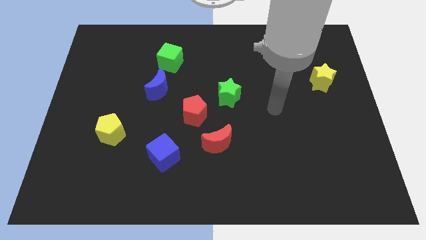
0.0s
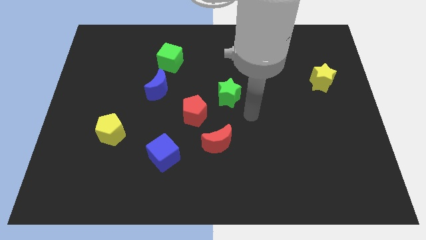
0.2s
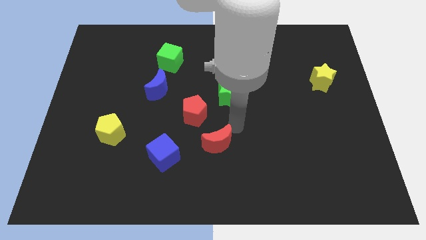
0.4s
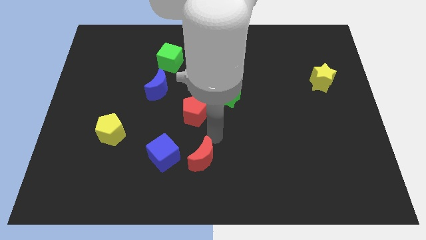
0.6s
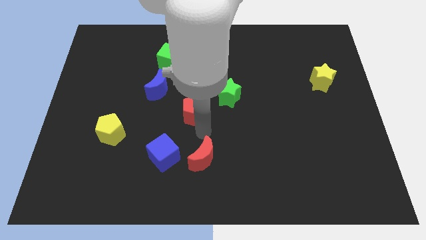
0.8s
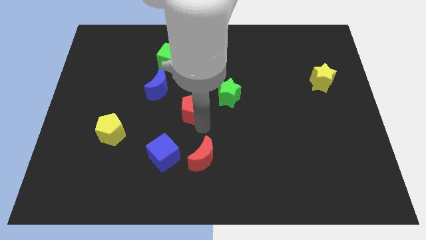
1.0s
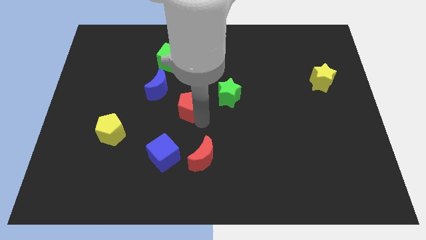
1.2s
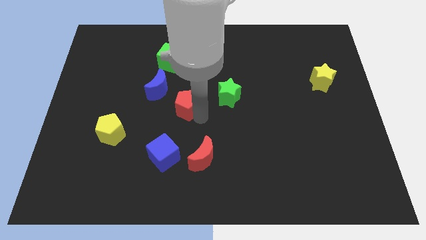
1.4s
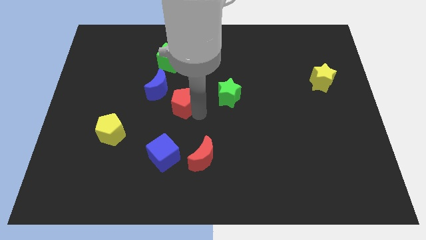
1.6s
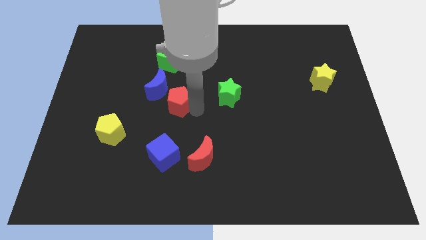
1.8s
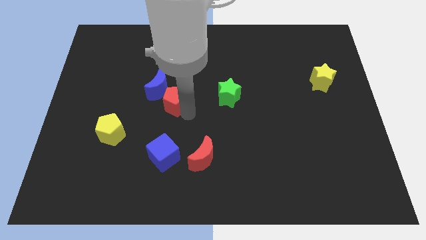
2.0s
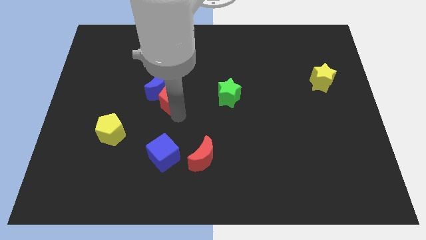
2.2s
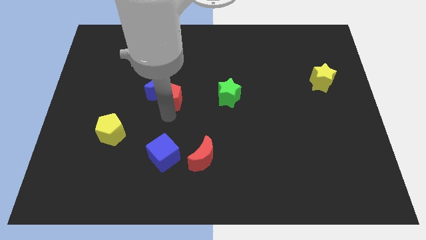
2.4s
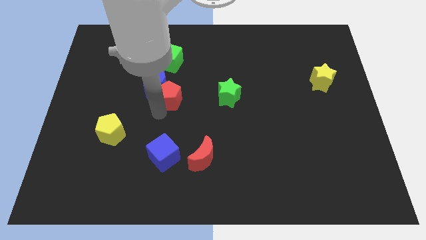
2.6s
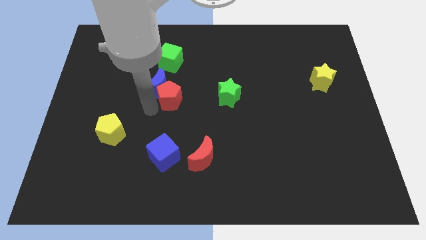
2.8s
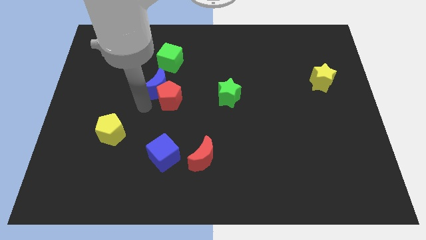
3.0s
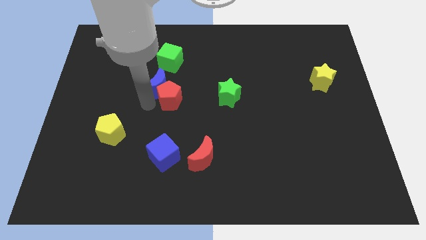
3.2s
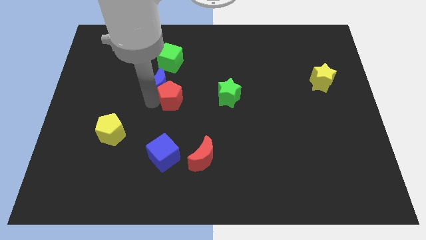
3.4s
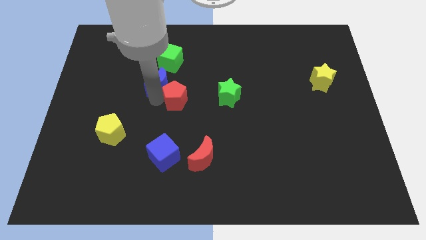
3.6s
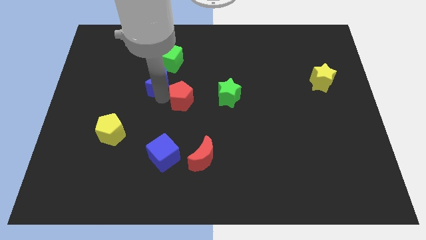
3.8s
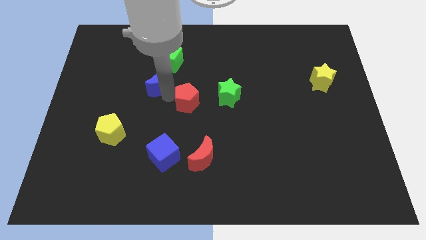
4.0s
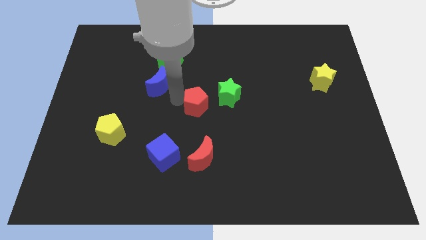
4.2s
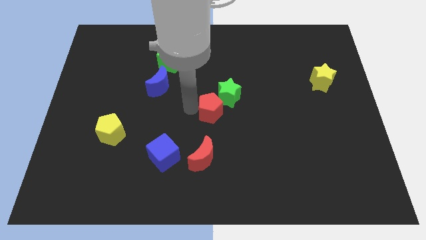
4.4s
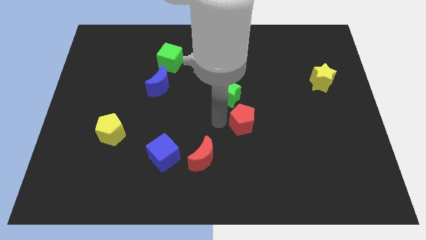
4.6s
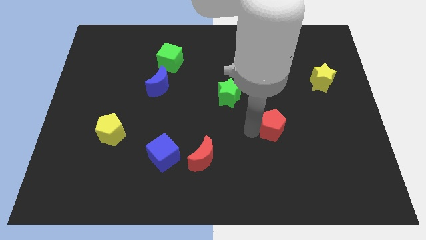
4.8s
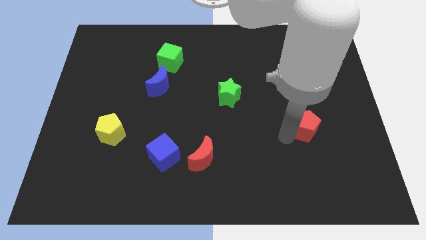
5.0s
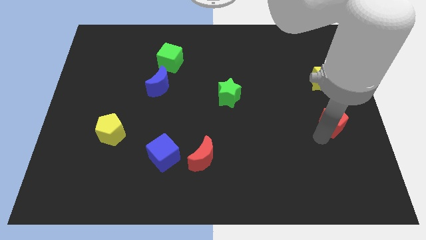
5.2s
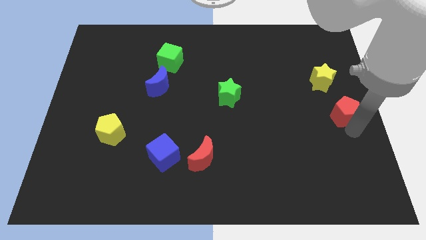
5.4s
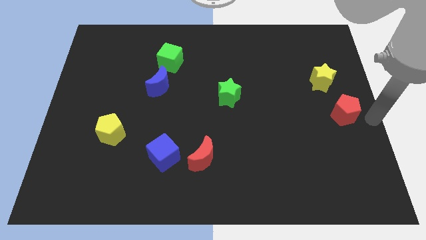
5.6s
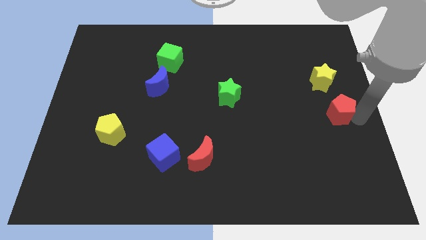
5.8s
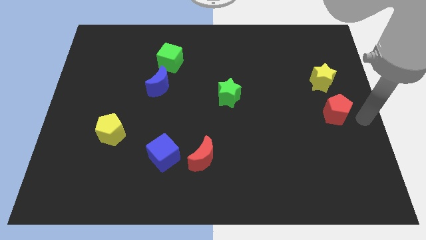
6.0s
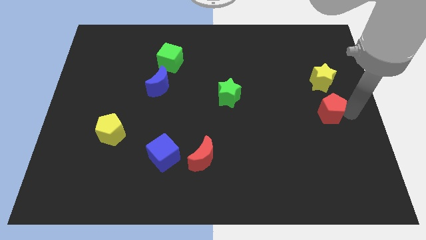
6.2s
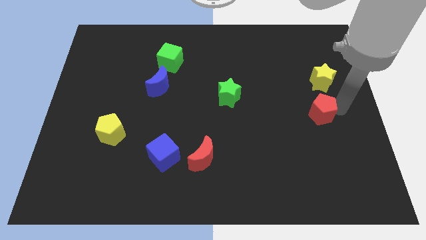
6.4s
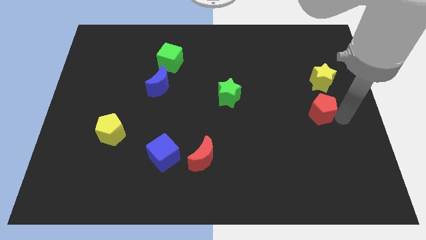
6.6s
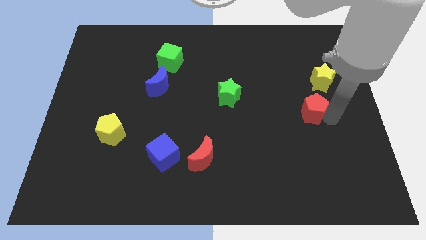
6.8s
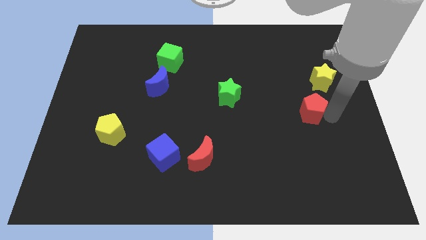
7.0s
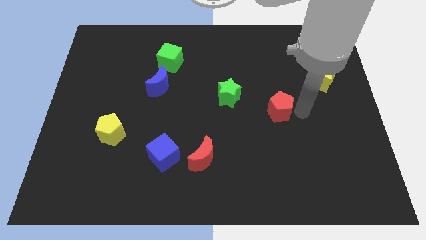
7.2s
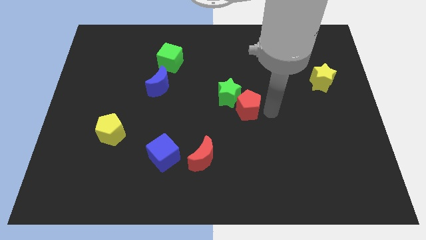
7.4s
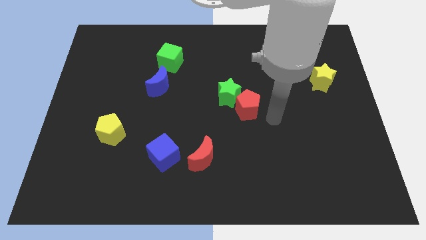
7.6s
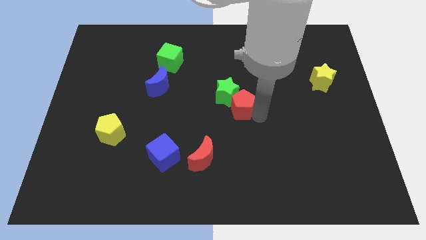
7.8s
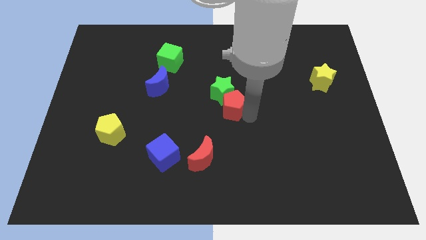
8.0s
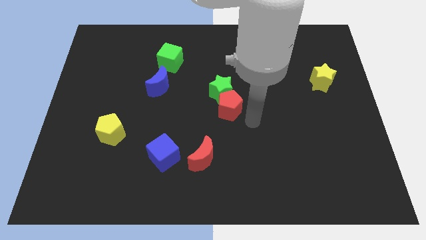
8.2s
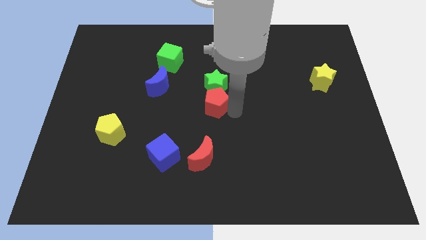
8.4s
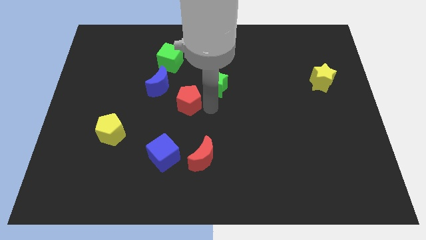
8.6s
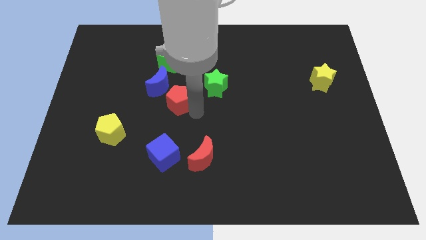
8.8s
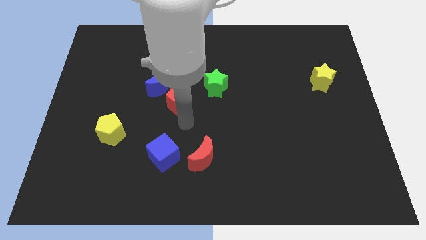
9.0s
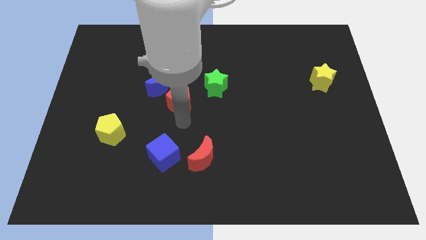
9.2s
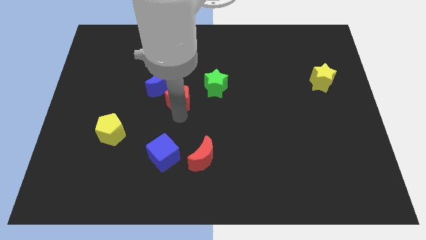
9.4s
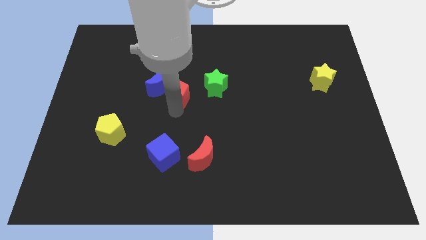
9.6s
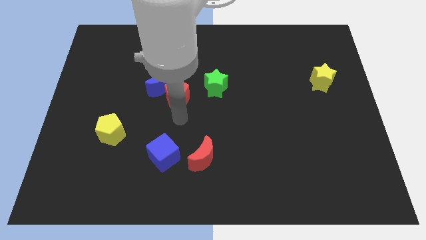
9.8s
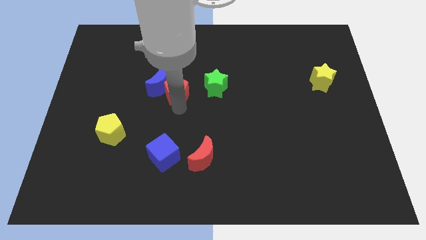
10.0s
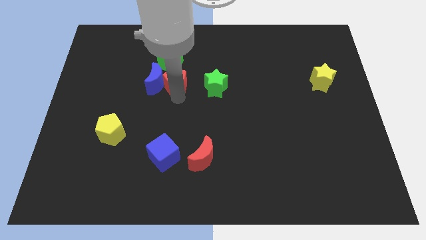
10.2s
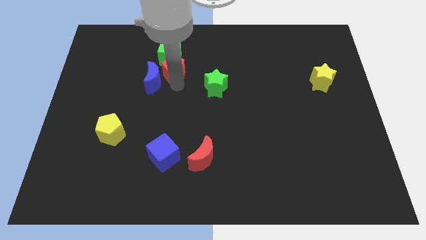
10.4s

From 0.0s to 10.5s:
slide the red pentagon towards the green cube

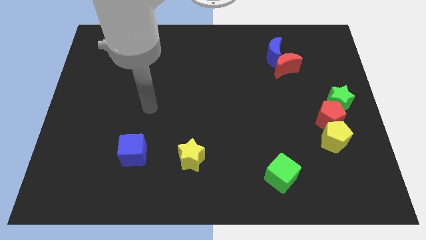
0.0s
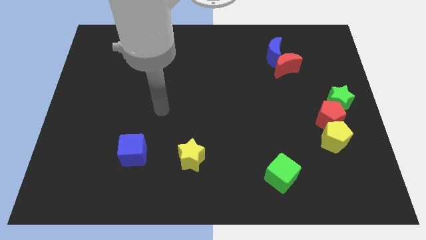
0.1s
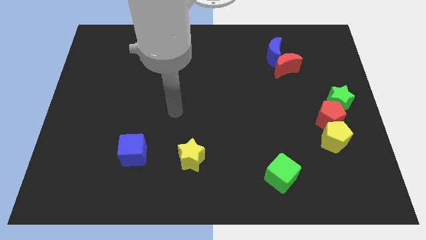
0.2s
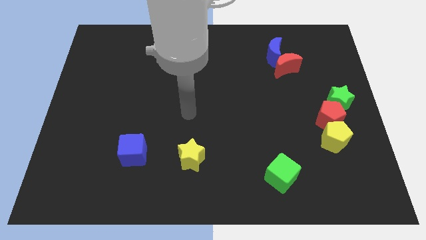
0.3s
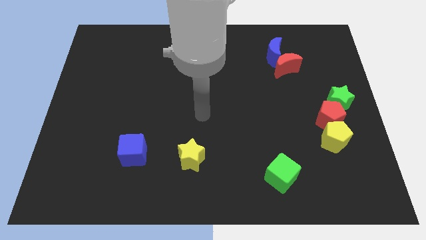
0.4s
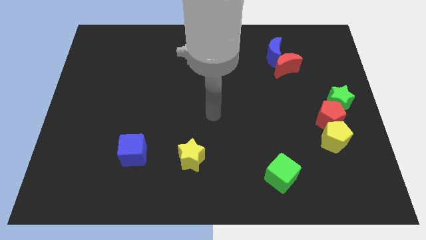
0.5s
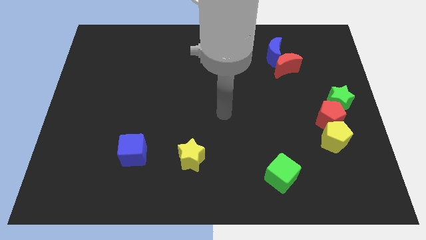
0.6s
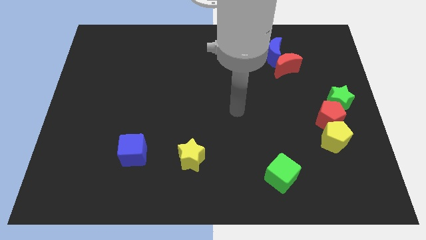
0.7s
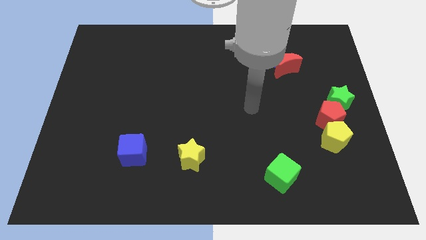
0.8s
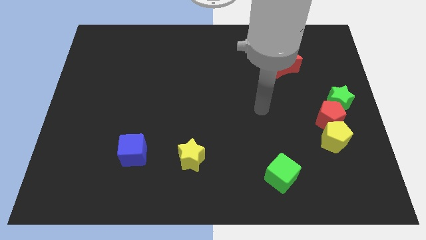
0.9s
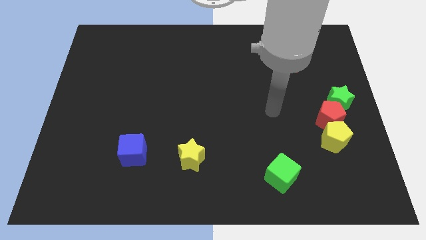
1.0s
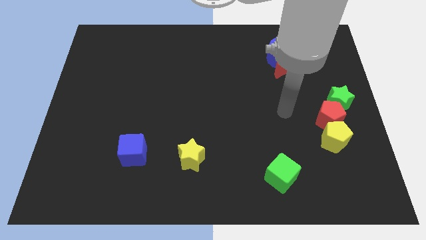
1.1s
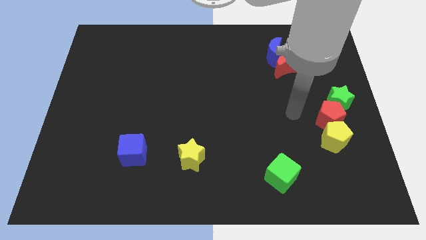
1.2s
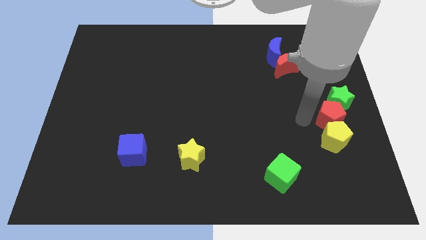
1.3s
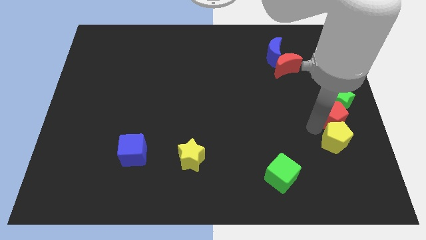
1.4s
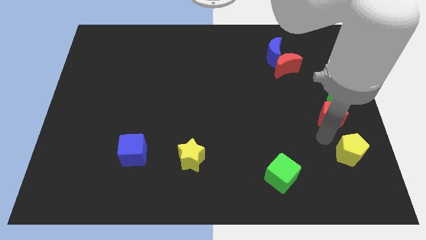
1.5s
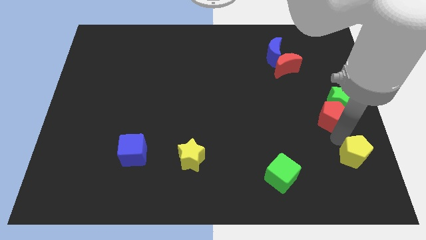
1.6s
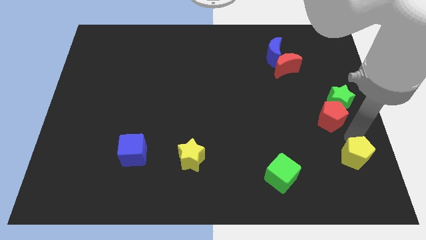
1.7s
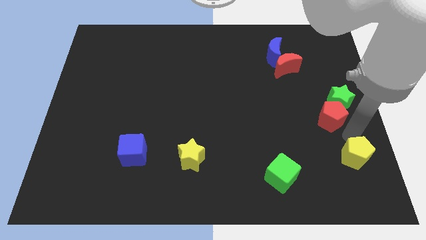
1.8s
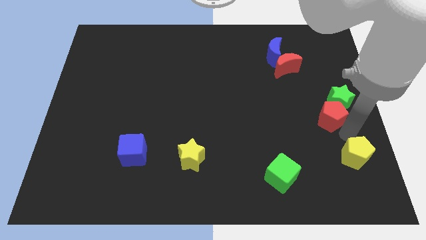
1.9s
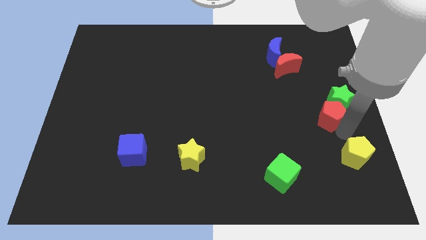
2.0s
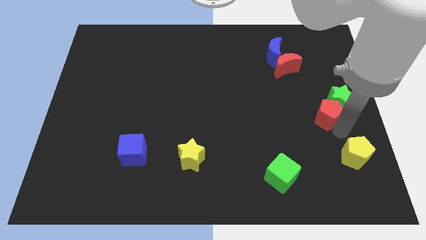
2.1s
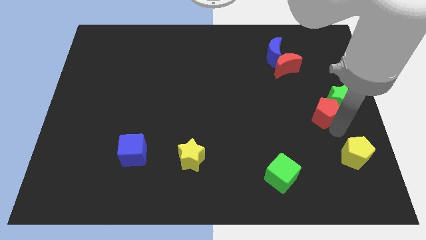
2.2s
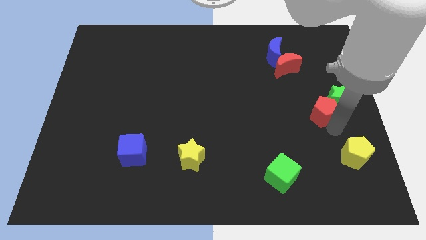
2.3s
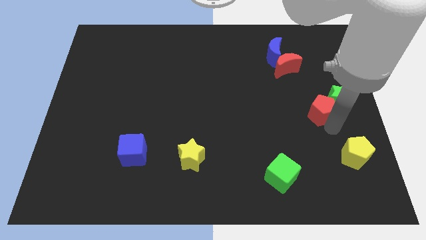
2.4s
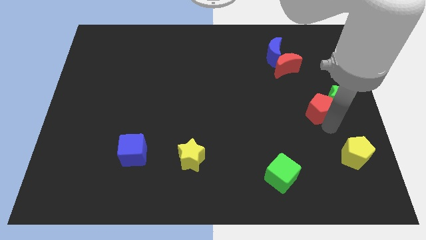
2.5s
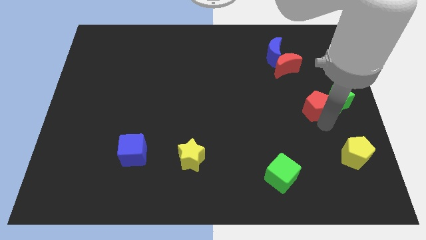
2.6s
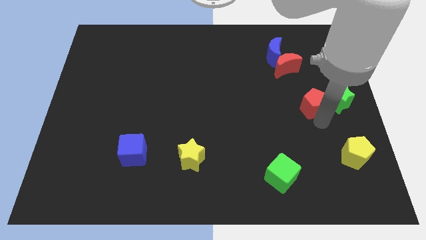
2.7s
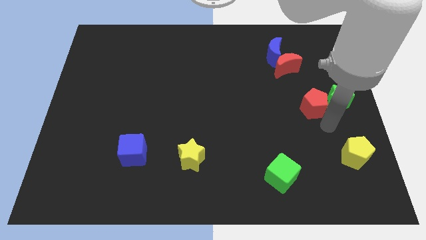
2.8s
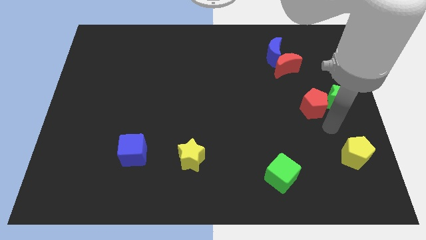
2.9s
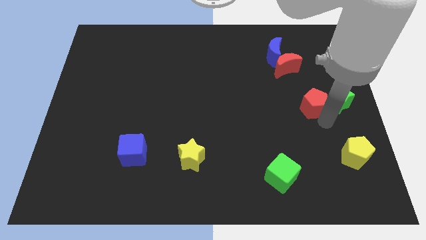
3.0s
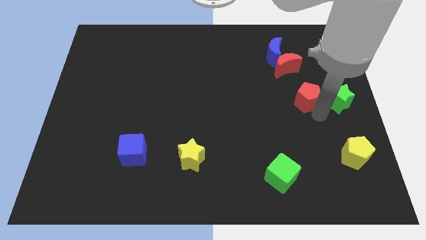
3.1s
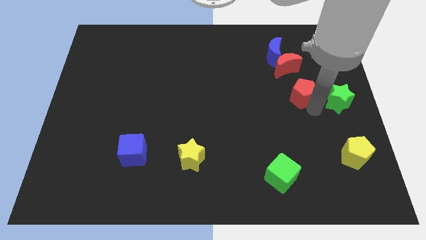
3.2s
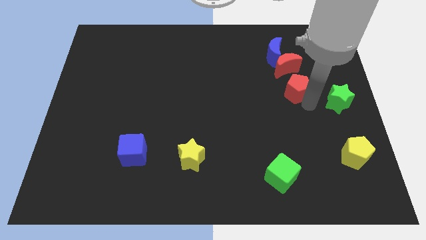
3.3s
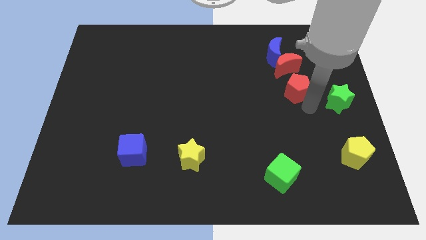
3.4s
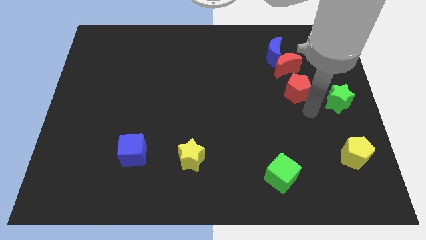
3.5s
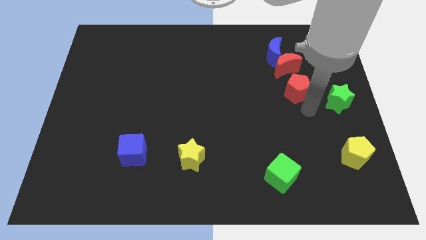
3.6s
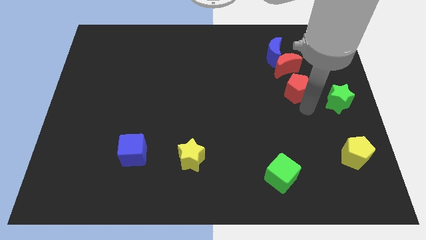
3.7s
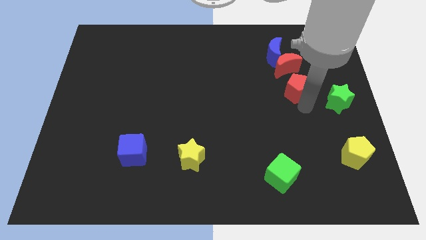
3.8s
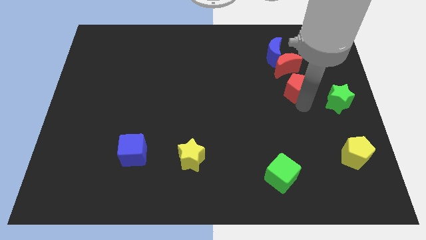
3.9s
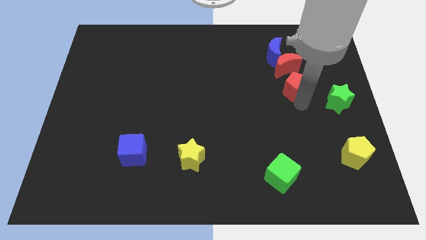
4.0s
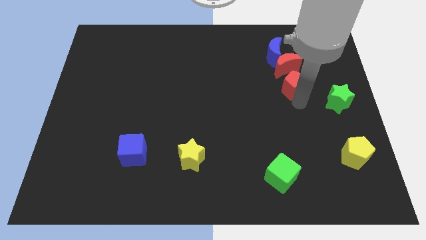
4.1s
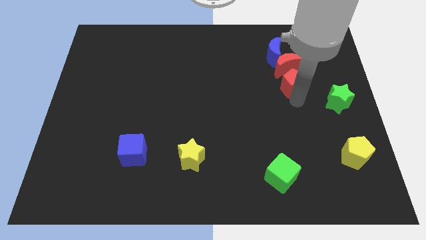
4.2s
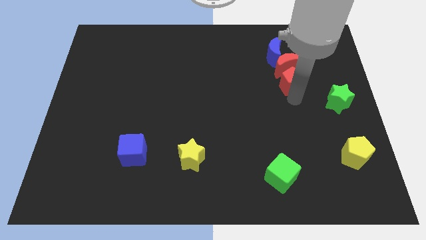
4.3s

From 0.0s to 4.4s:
put the red pentagon towards the red moon
